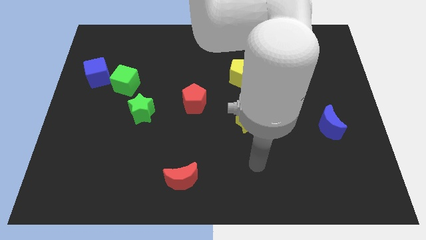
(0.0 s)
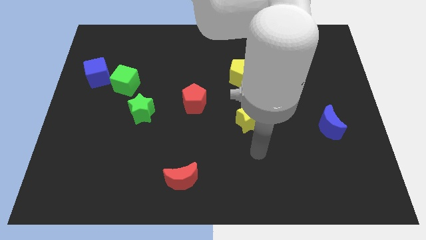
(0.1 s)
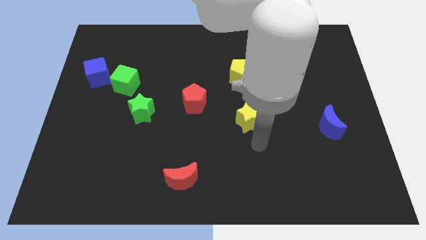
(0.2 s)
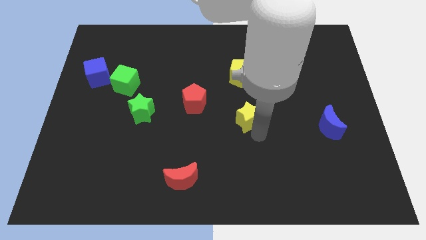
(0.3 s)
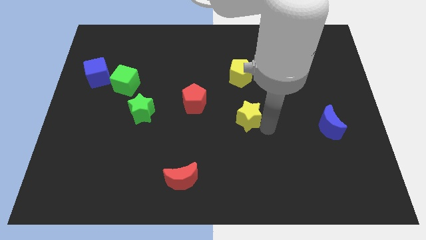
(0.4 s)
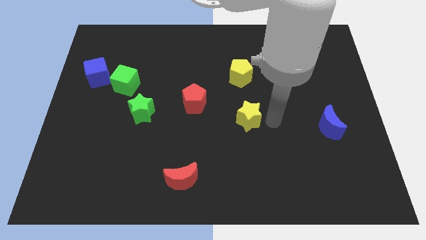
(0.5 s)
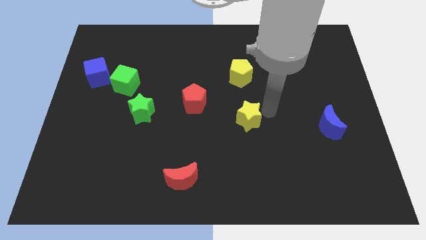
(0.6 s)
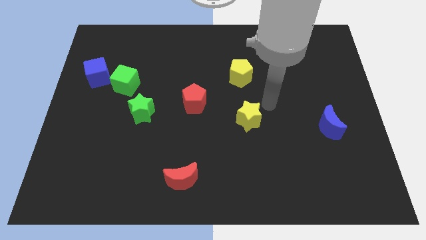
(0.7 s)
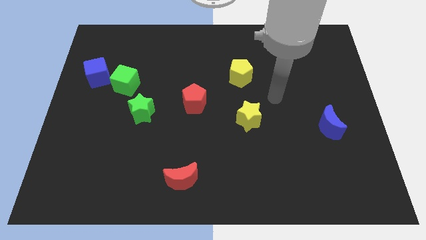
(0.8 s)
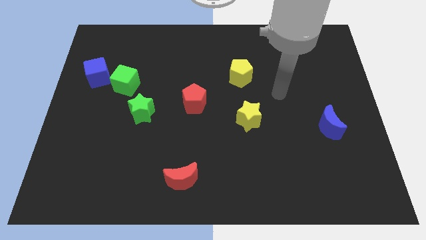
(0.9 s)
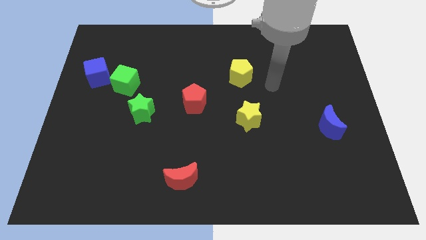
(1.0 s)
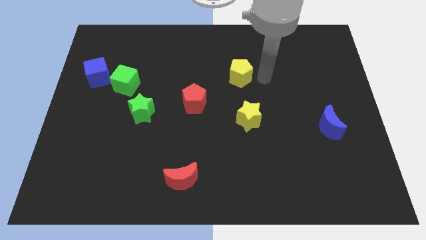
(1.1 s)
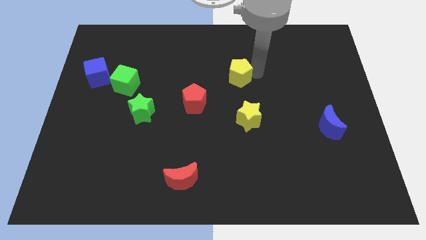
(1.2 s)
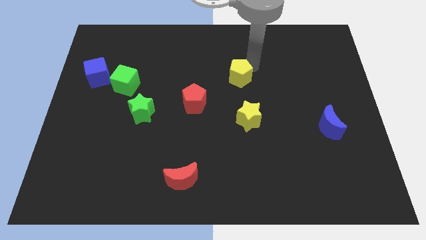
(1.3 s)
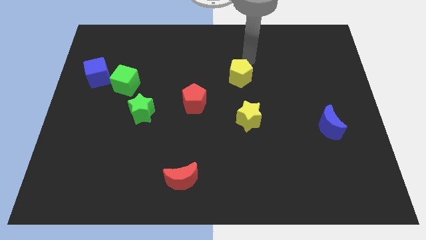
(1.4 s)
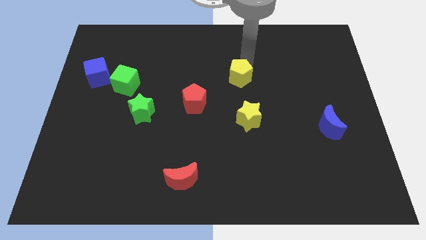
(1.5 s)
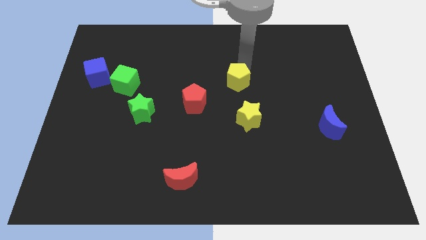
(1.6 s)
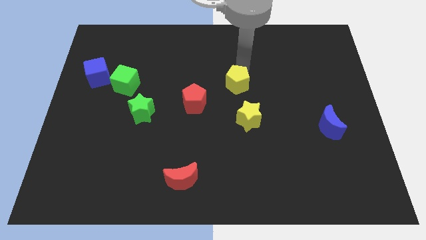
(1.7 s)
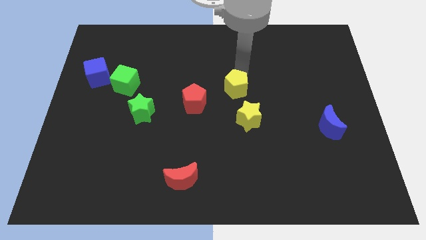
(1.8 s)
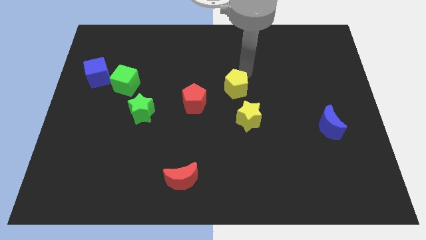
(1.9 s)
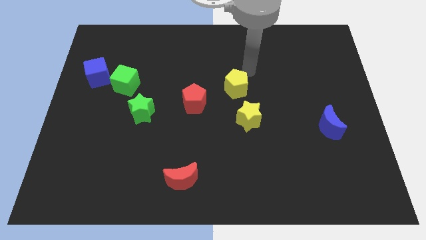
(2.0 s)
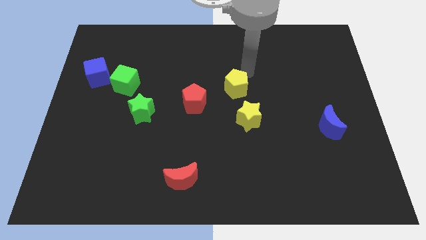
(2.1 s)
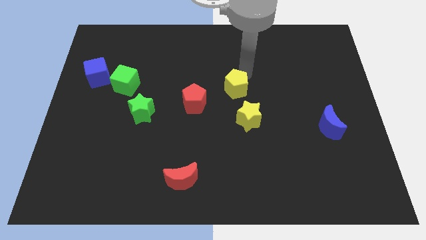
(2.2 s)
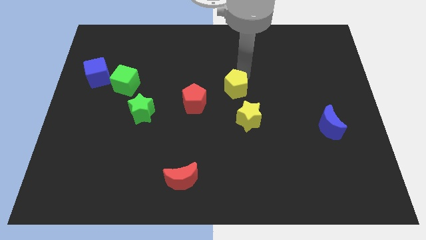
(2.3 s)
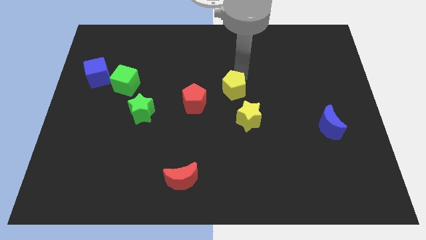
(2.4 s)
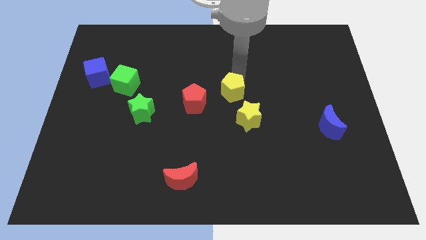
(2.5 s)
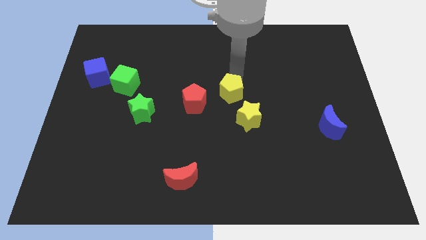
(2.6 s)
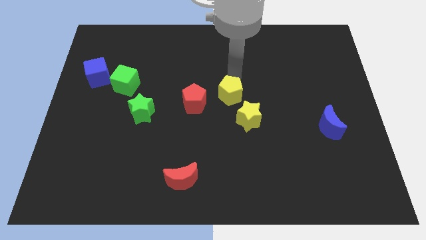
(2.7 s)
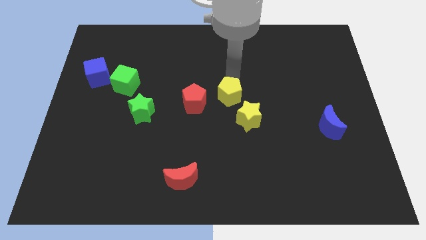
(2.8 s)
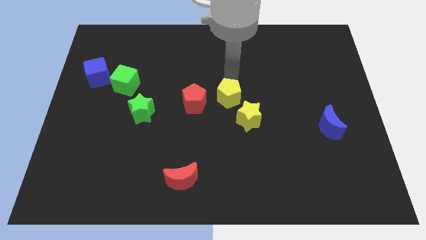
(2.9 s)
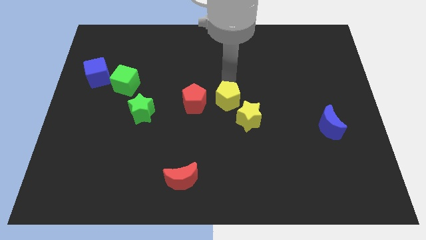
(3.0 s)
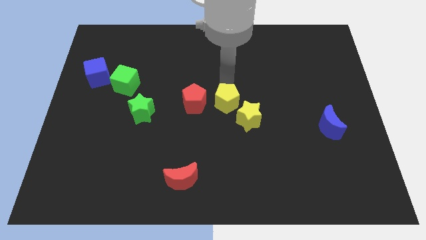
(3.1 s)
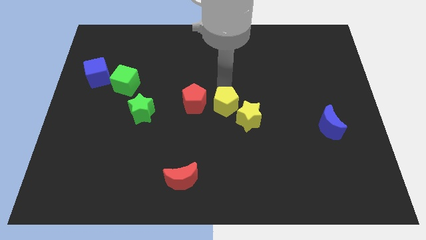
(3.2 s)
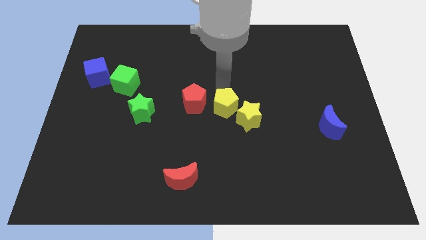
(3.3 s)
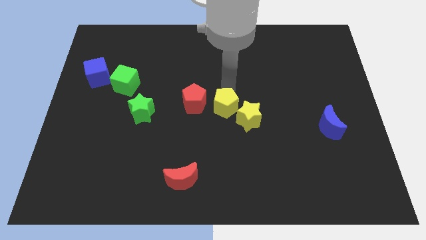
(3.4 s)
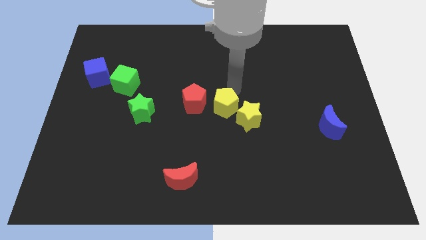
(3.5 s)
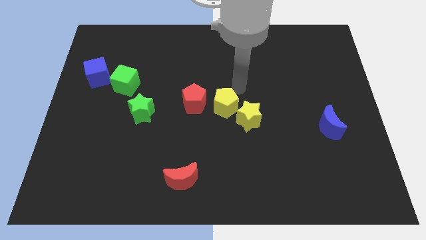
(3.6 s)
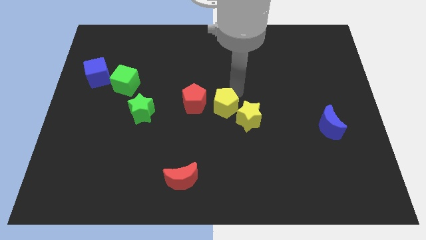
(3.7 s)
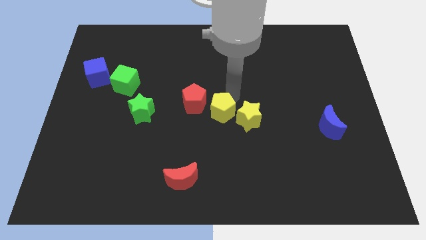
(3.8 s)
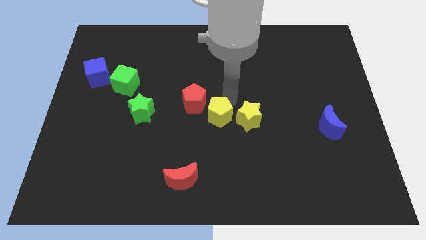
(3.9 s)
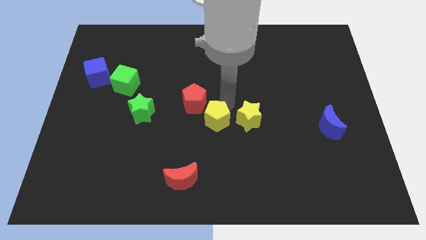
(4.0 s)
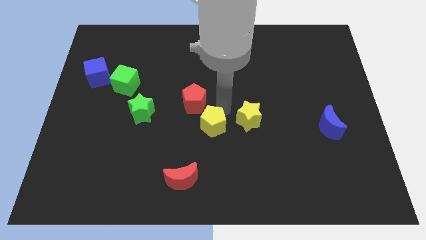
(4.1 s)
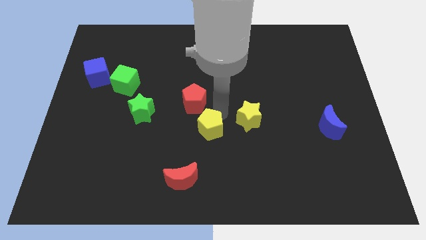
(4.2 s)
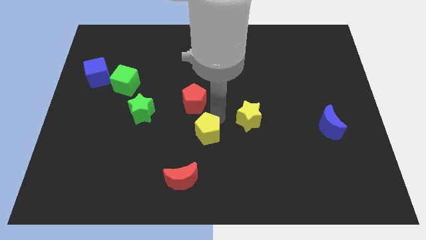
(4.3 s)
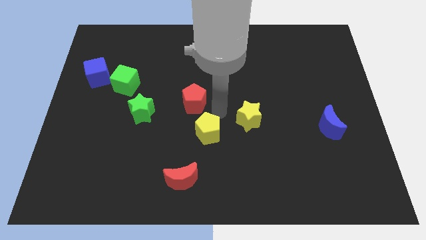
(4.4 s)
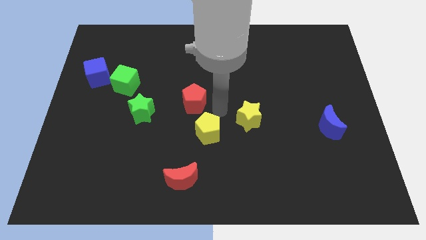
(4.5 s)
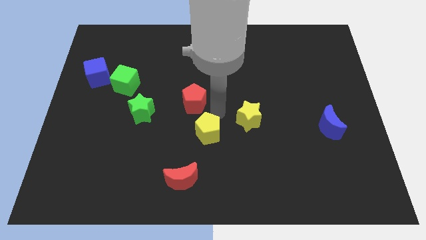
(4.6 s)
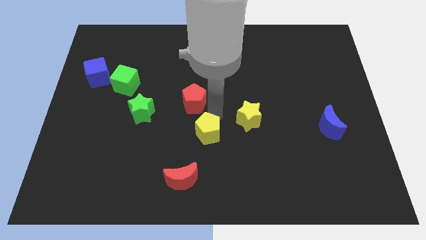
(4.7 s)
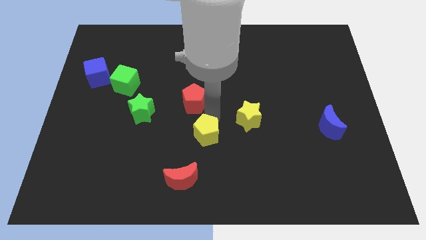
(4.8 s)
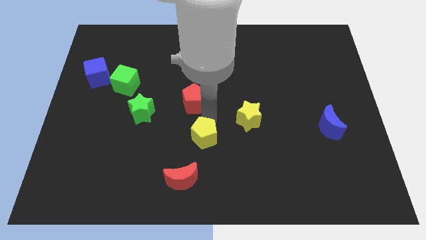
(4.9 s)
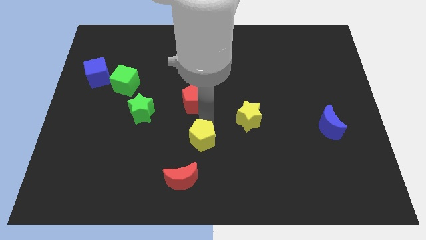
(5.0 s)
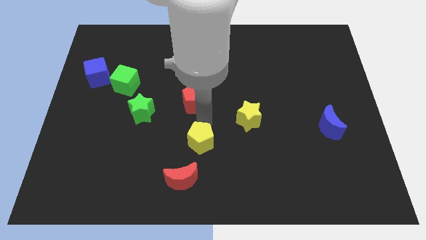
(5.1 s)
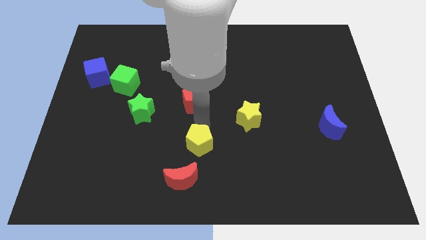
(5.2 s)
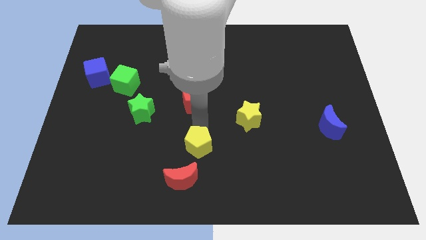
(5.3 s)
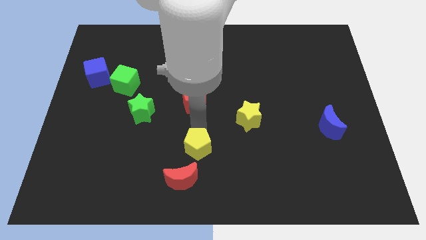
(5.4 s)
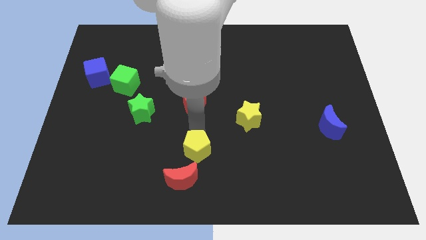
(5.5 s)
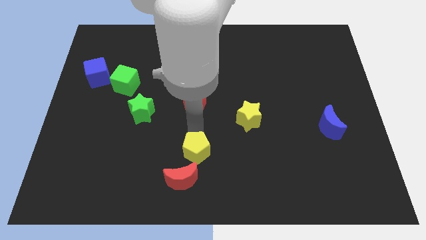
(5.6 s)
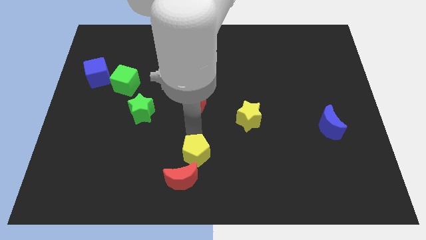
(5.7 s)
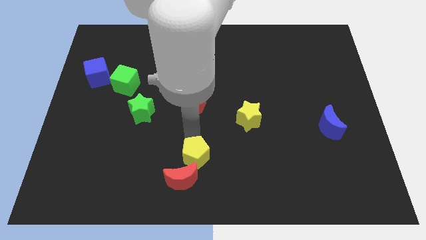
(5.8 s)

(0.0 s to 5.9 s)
slide the yellow pentagon to the red moon

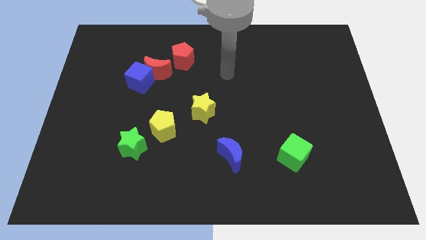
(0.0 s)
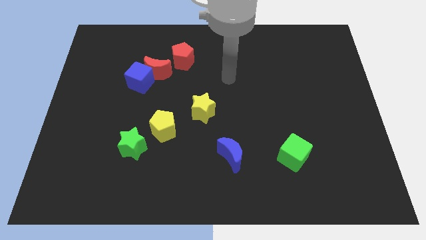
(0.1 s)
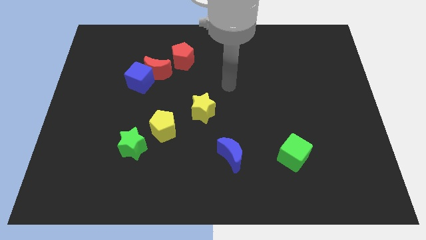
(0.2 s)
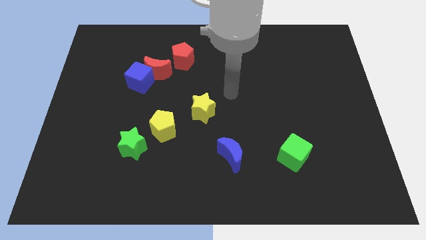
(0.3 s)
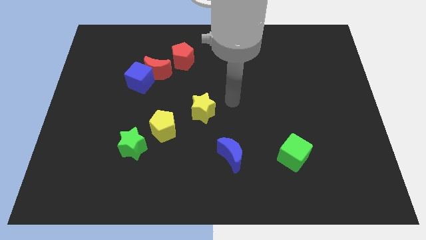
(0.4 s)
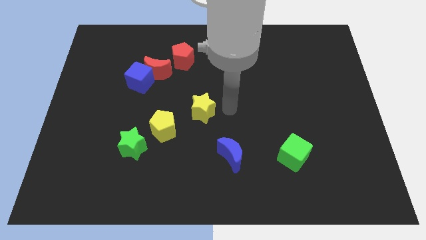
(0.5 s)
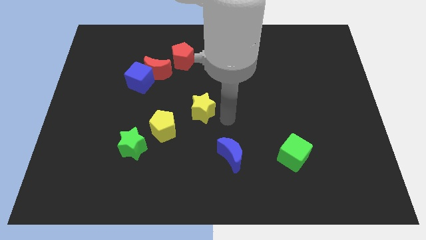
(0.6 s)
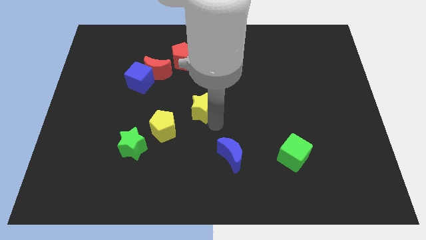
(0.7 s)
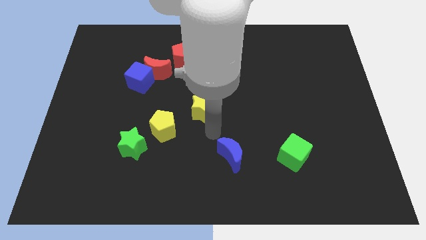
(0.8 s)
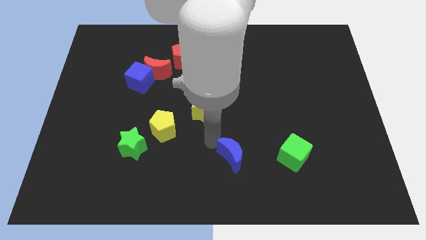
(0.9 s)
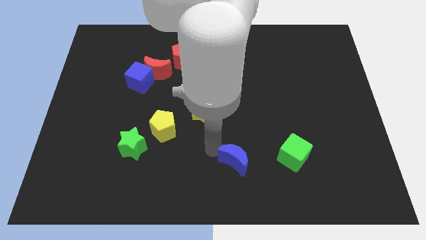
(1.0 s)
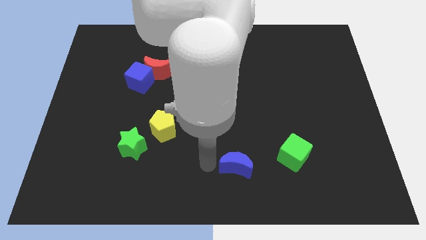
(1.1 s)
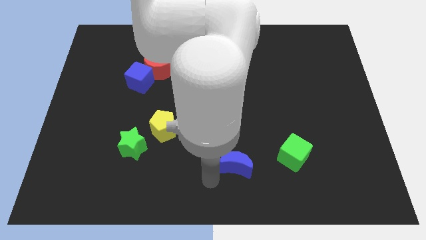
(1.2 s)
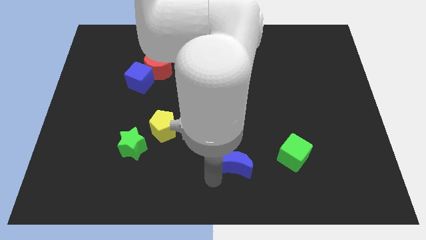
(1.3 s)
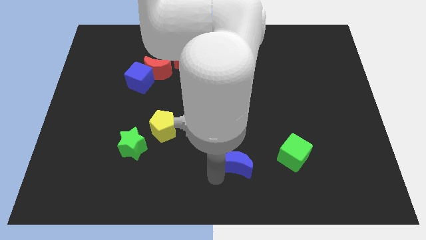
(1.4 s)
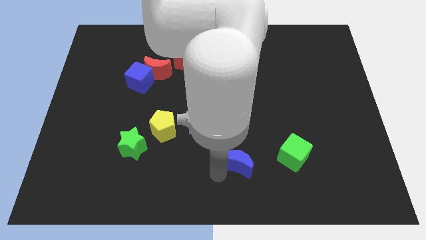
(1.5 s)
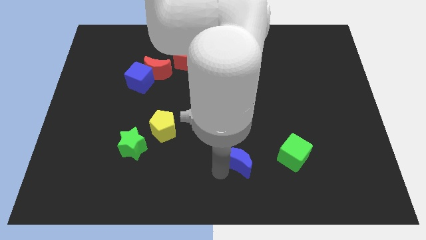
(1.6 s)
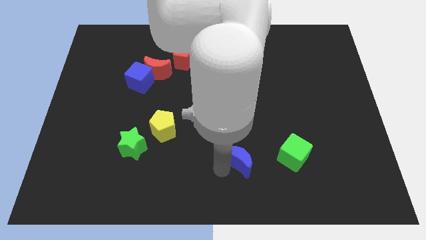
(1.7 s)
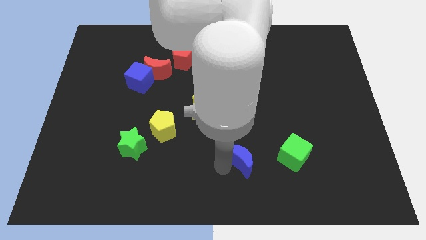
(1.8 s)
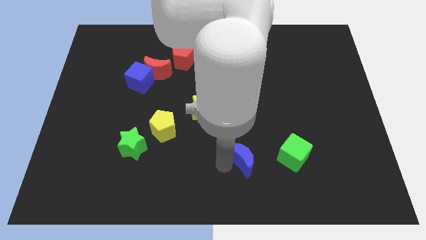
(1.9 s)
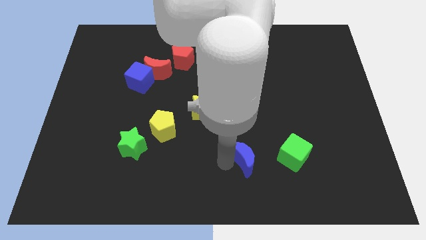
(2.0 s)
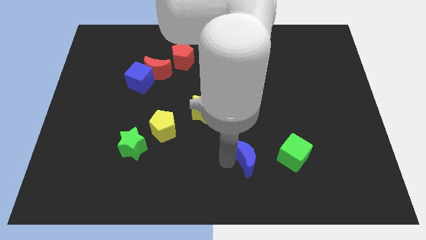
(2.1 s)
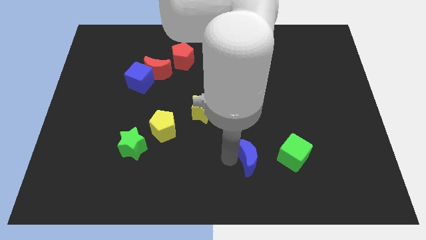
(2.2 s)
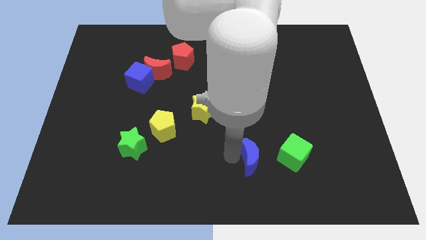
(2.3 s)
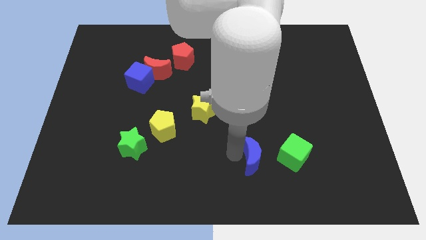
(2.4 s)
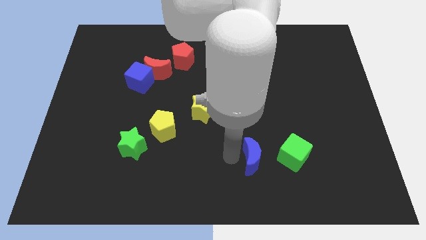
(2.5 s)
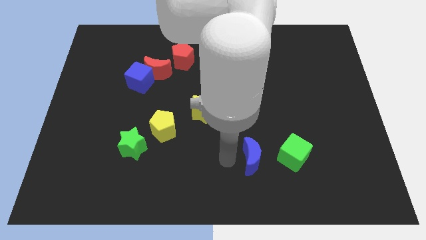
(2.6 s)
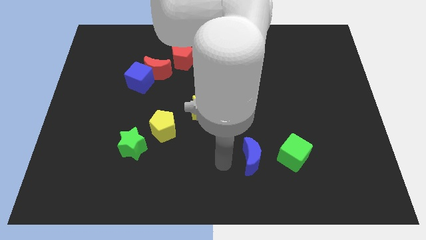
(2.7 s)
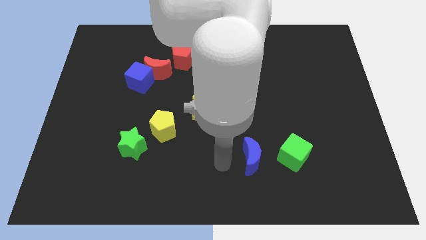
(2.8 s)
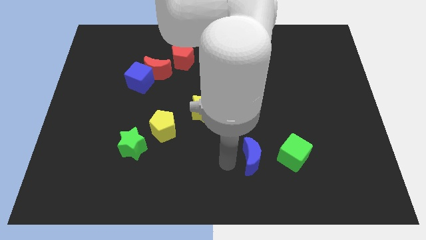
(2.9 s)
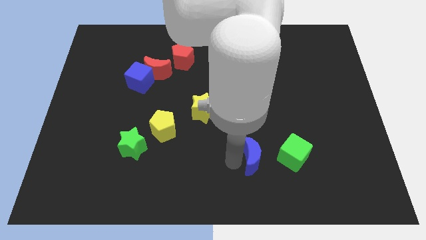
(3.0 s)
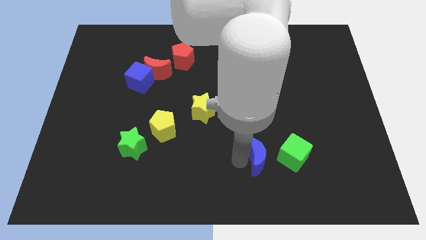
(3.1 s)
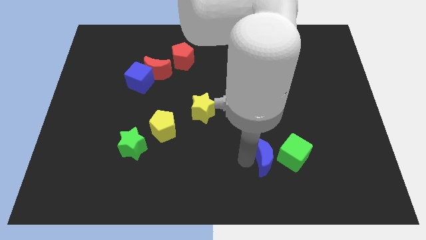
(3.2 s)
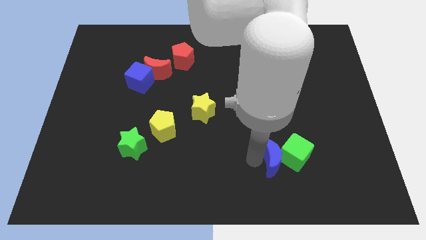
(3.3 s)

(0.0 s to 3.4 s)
slide the blue moon next to the green cube
